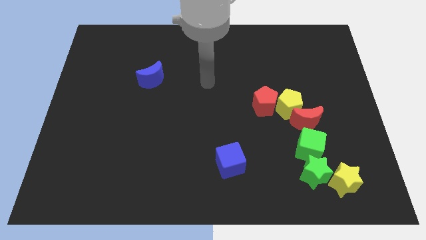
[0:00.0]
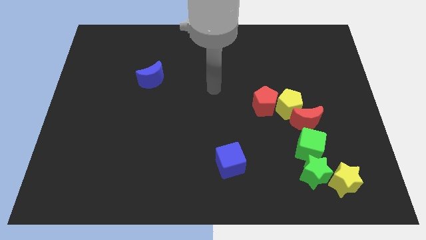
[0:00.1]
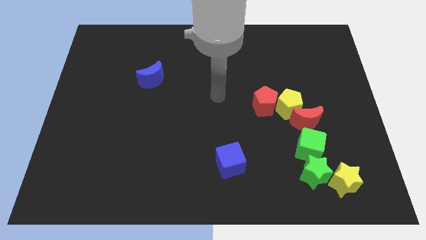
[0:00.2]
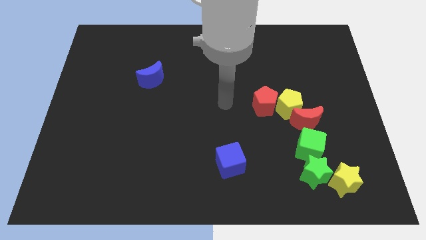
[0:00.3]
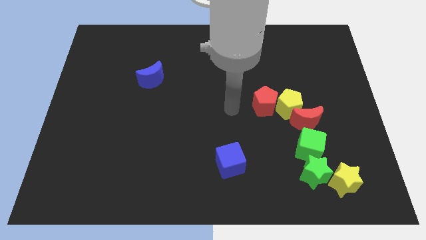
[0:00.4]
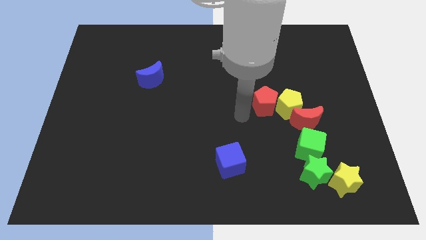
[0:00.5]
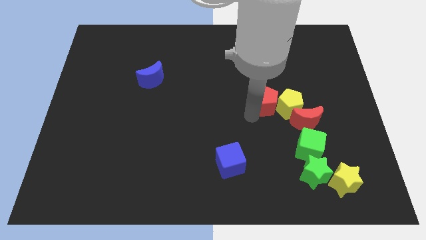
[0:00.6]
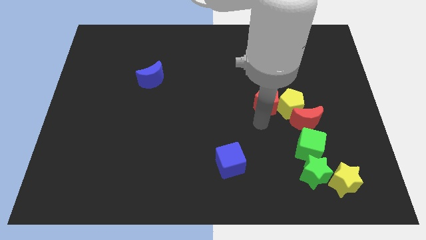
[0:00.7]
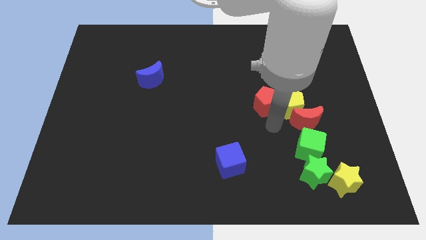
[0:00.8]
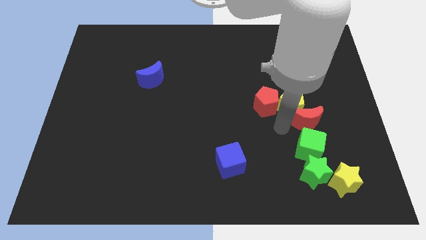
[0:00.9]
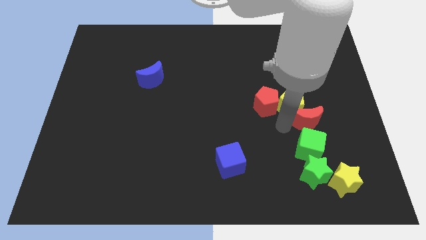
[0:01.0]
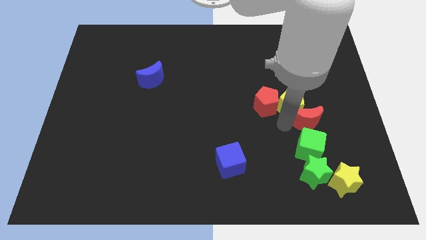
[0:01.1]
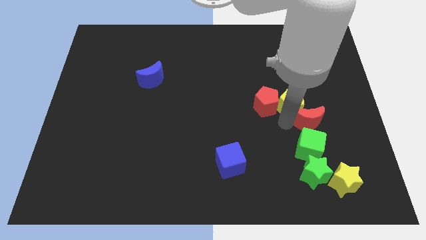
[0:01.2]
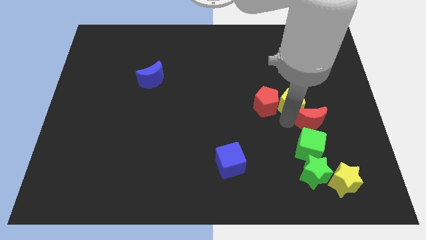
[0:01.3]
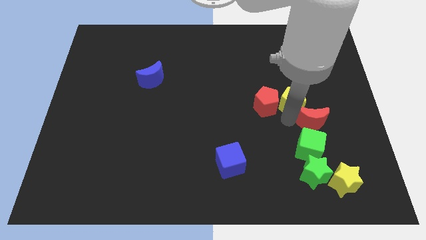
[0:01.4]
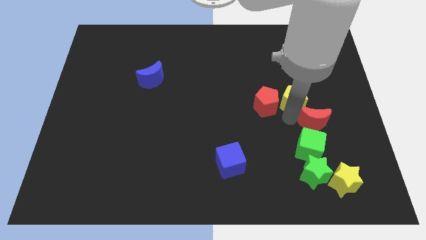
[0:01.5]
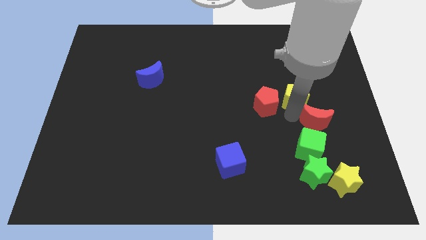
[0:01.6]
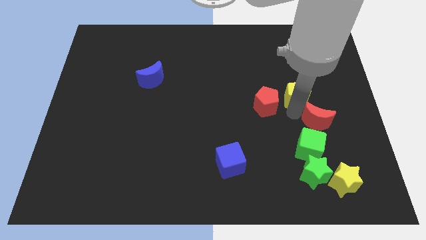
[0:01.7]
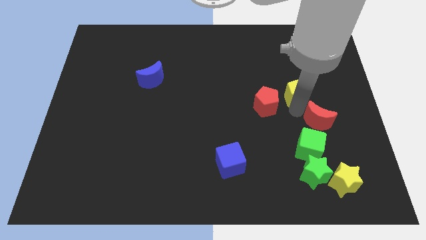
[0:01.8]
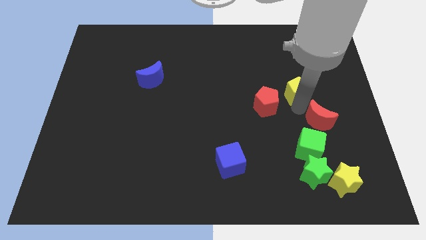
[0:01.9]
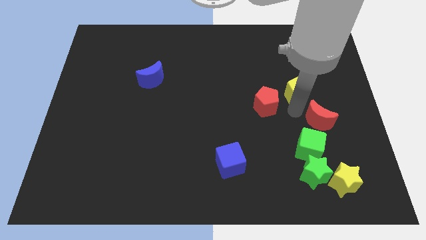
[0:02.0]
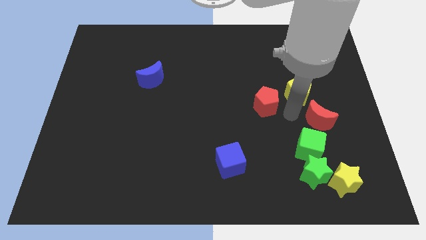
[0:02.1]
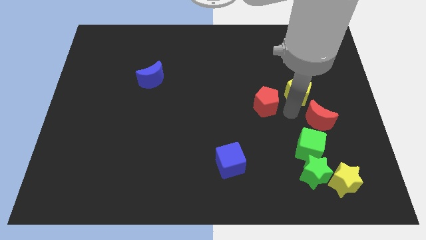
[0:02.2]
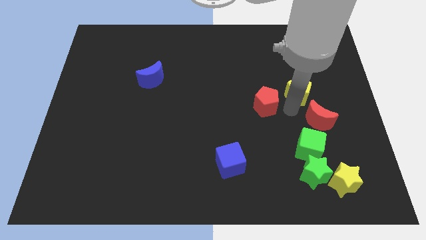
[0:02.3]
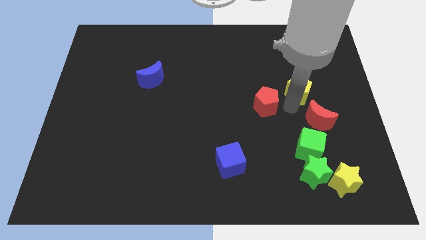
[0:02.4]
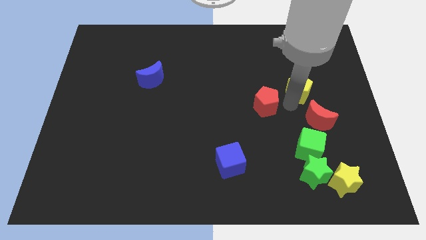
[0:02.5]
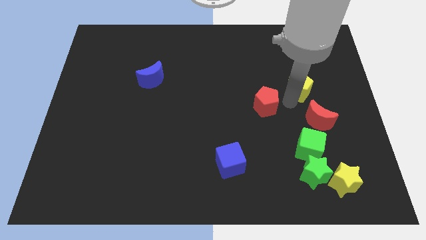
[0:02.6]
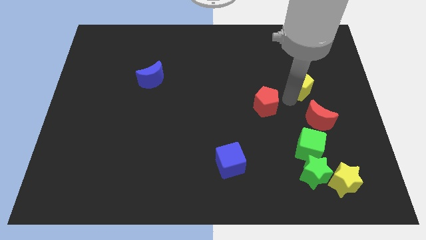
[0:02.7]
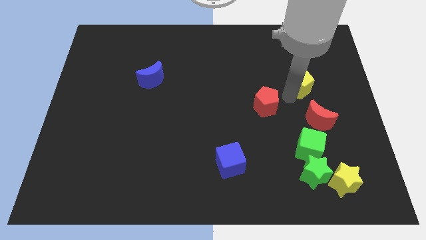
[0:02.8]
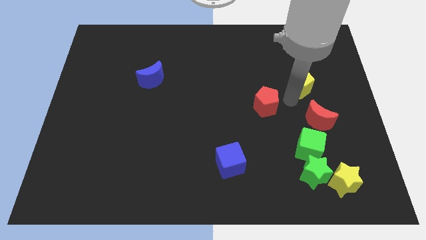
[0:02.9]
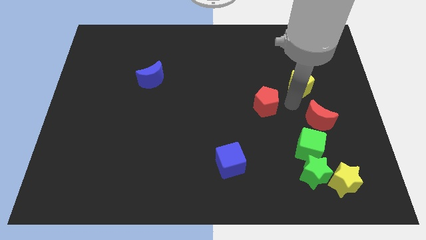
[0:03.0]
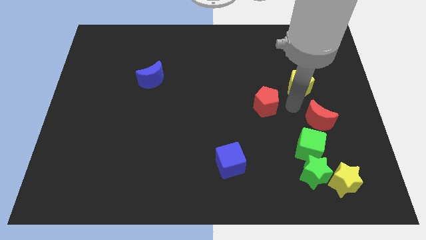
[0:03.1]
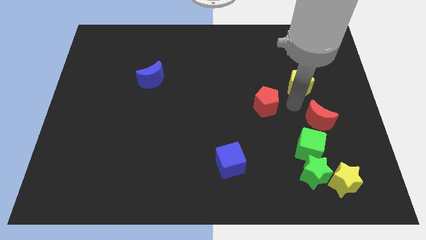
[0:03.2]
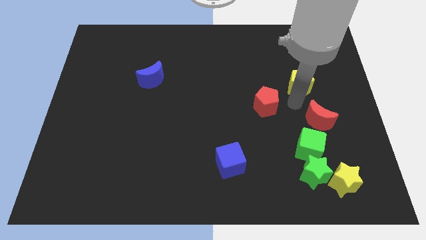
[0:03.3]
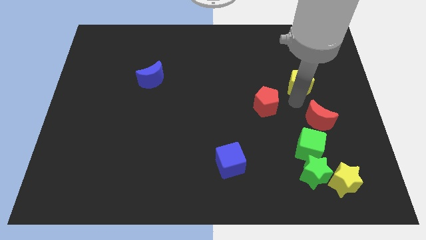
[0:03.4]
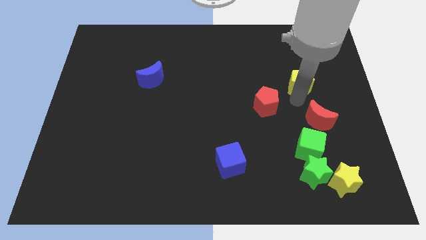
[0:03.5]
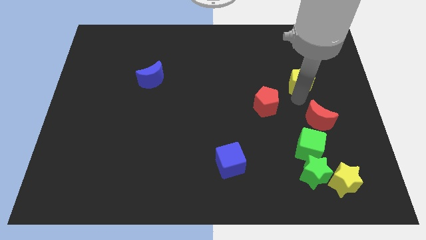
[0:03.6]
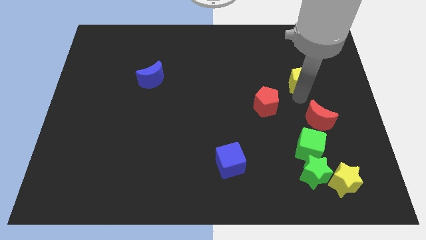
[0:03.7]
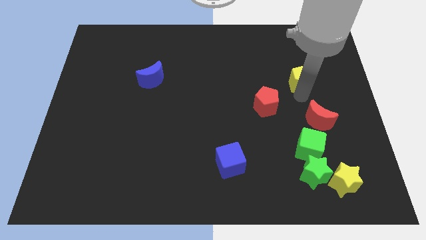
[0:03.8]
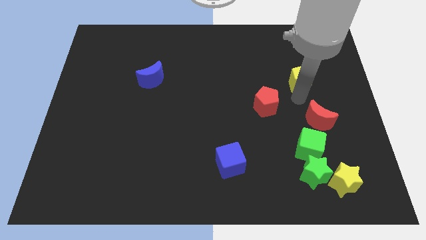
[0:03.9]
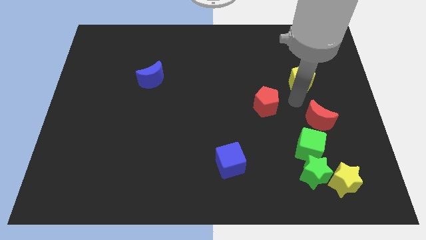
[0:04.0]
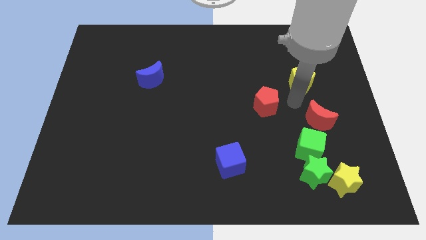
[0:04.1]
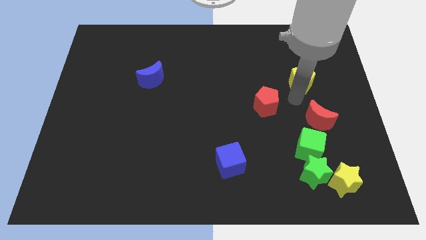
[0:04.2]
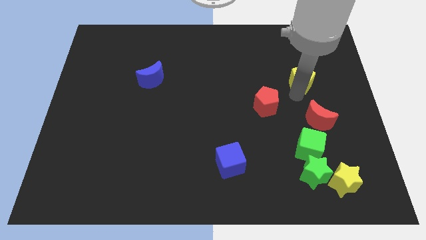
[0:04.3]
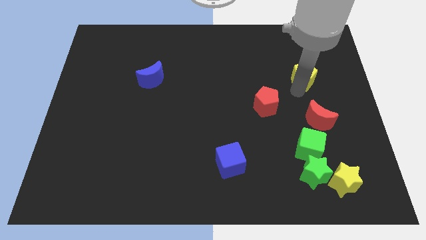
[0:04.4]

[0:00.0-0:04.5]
pull the yellow pentagon apart from the red pentagon and red moon

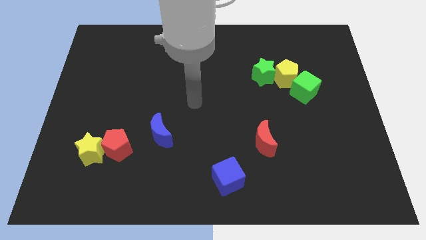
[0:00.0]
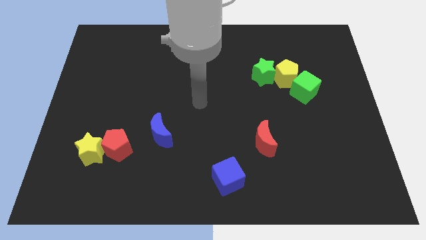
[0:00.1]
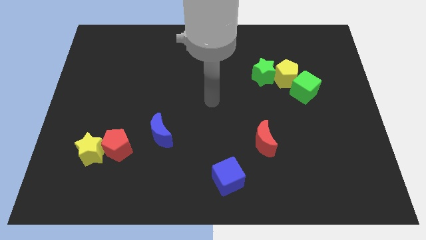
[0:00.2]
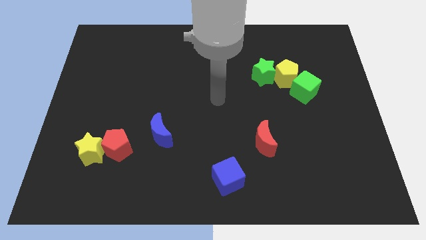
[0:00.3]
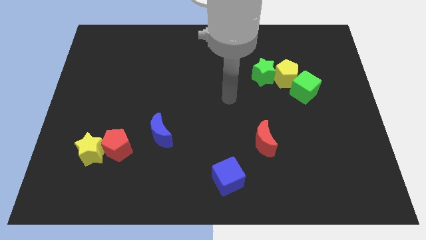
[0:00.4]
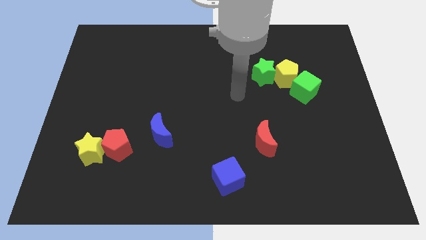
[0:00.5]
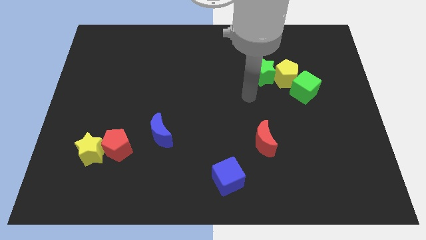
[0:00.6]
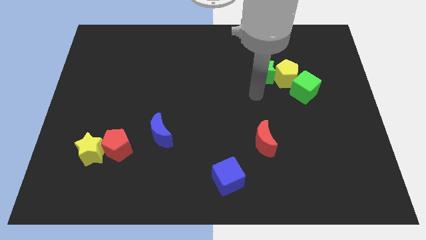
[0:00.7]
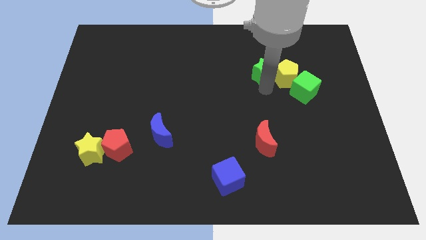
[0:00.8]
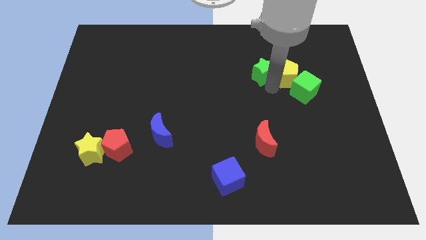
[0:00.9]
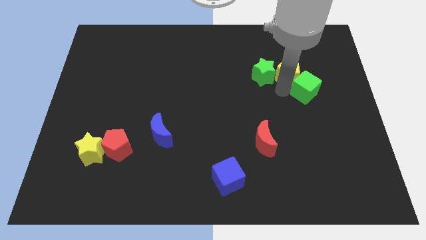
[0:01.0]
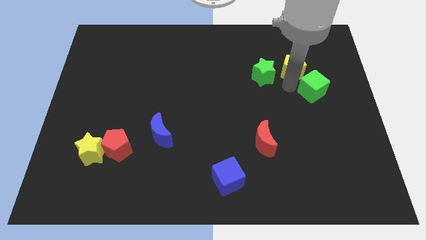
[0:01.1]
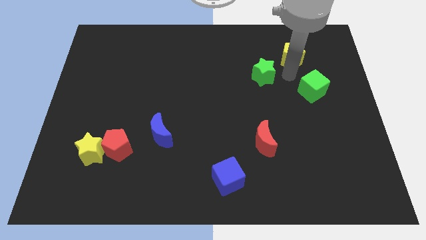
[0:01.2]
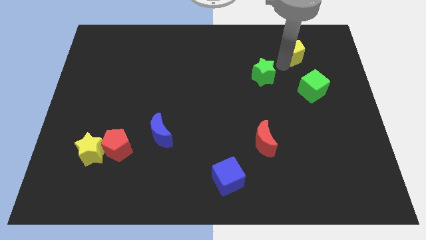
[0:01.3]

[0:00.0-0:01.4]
move the green star away from the yellow pentagon

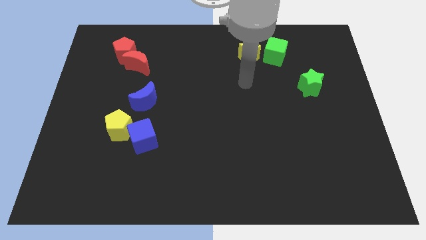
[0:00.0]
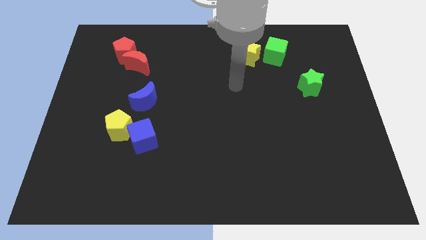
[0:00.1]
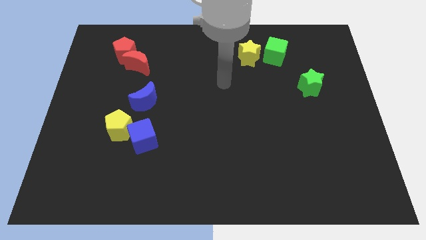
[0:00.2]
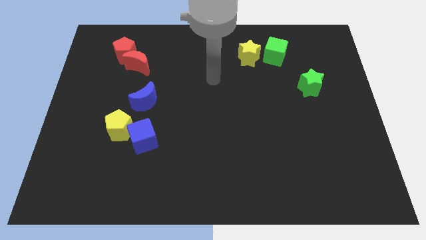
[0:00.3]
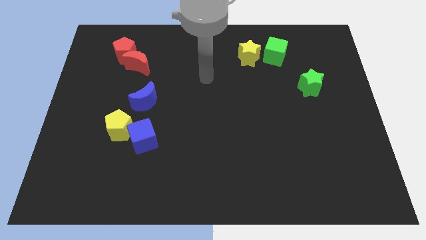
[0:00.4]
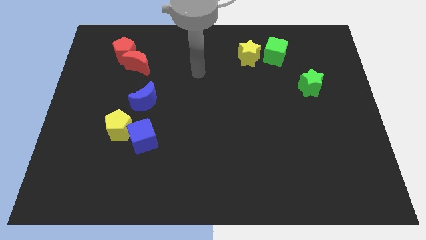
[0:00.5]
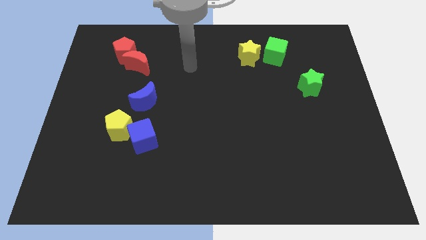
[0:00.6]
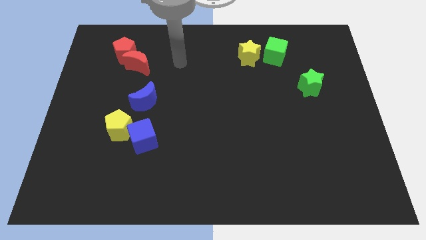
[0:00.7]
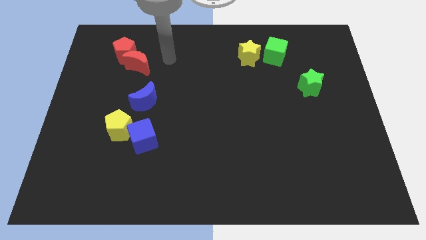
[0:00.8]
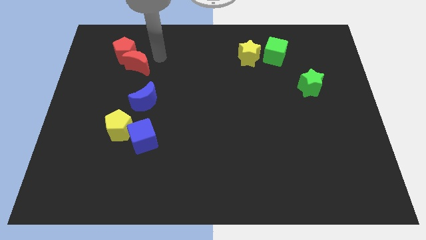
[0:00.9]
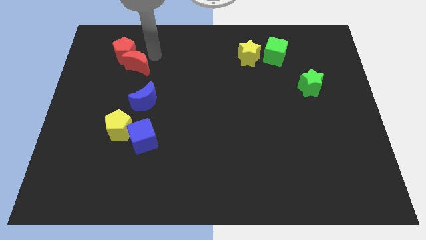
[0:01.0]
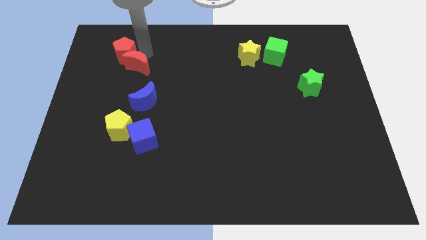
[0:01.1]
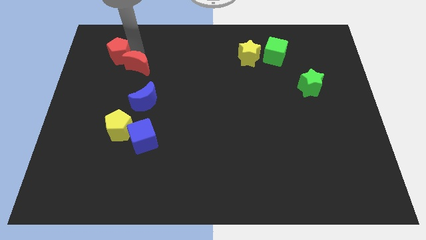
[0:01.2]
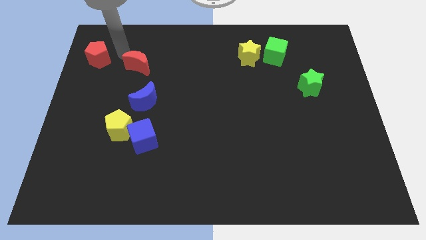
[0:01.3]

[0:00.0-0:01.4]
separate the red moon from the red pentagon

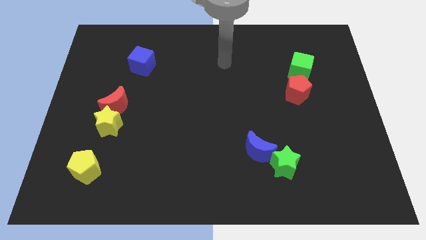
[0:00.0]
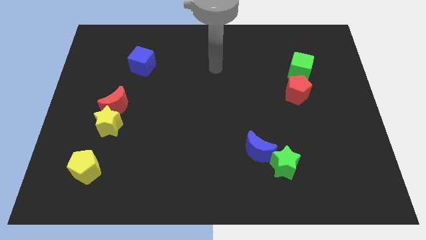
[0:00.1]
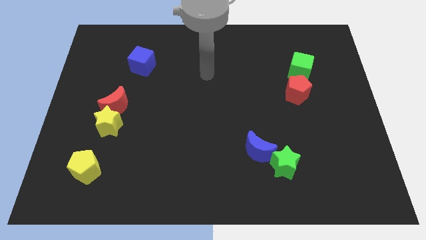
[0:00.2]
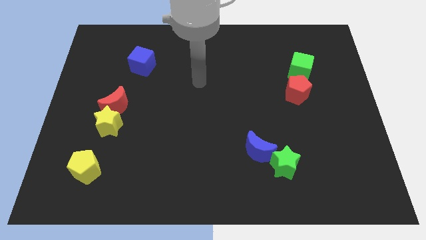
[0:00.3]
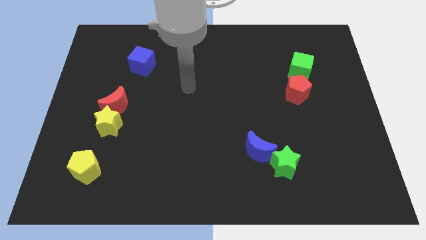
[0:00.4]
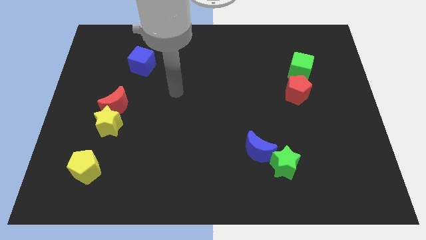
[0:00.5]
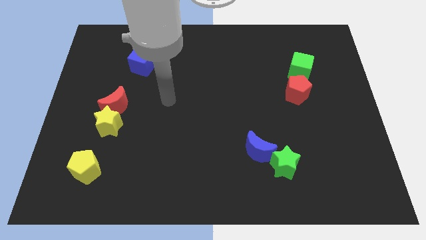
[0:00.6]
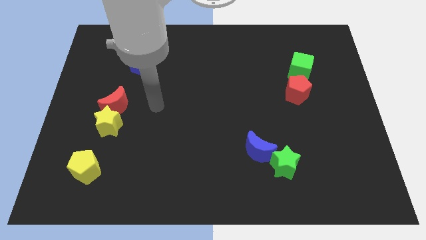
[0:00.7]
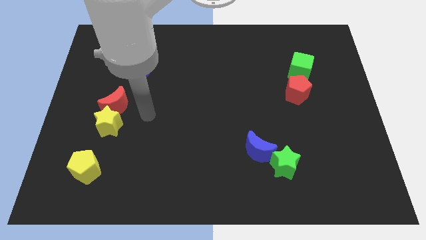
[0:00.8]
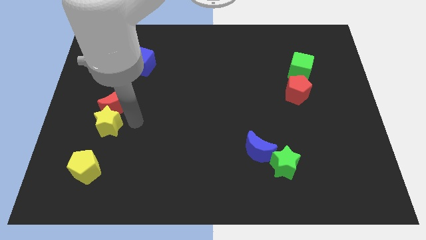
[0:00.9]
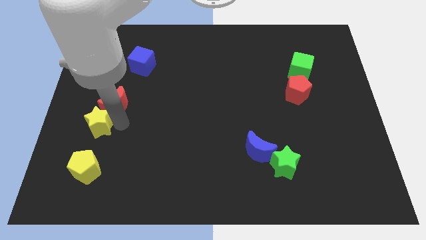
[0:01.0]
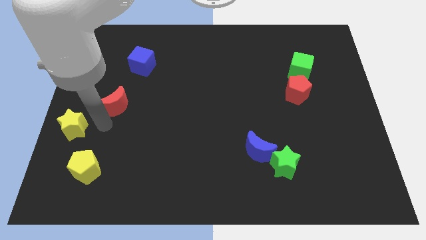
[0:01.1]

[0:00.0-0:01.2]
separate the red moon from the yellow star

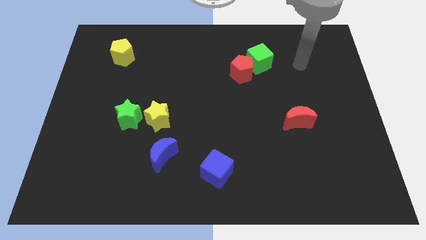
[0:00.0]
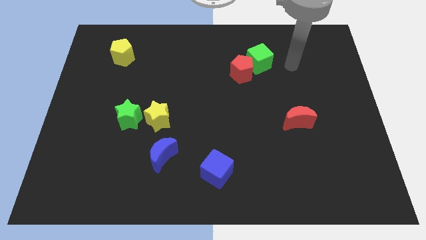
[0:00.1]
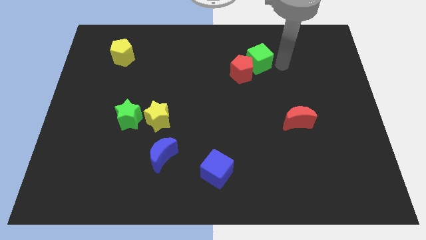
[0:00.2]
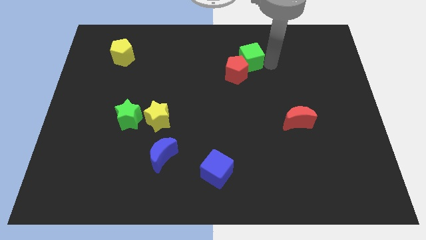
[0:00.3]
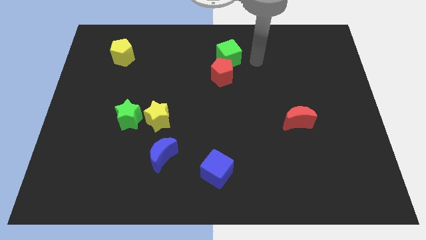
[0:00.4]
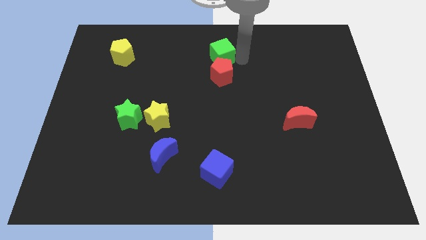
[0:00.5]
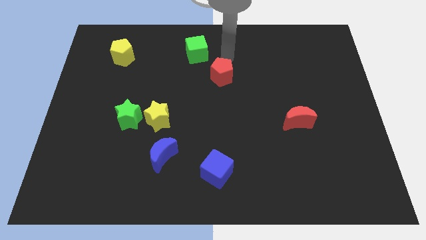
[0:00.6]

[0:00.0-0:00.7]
move the red pentagon away from the green cube
